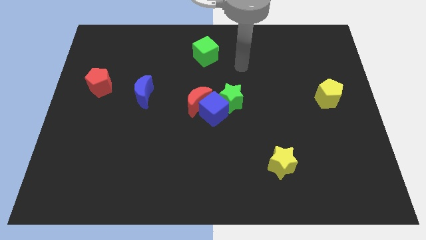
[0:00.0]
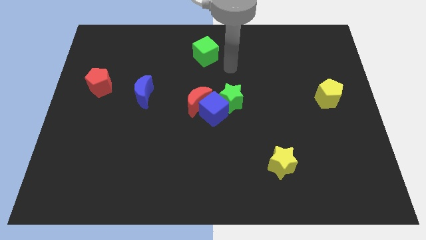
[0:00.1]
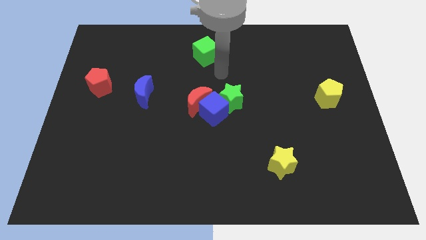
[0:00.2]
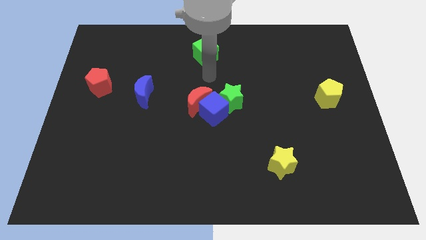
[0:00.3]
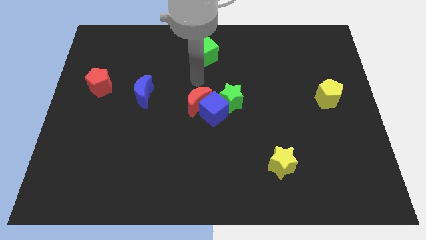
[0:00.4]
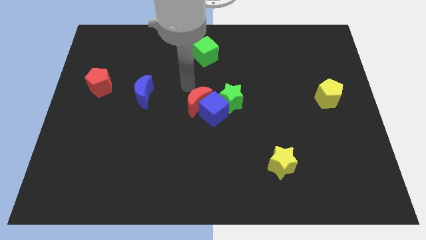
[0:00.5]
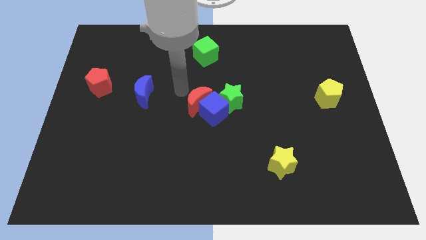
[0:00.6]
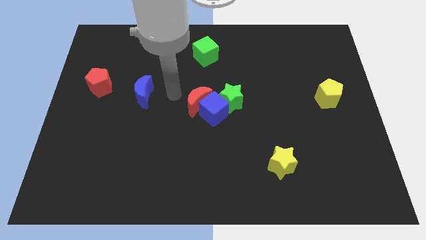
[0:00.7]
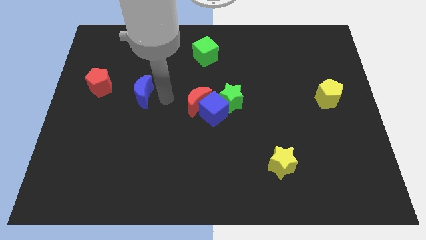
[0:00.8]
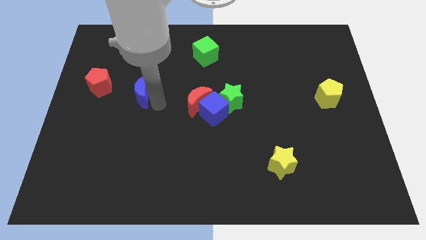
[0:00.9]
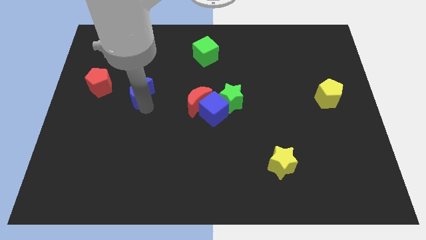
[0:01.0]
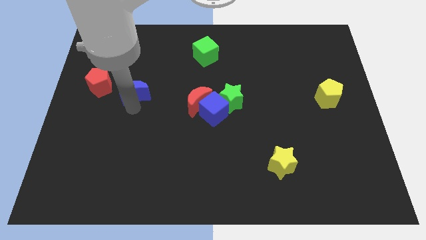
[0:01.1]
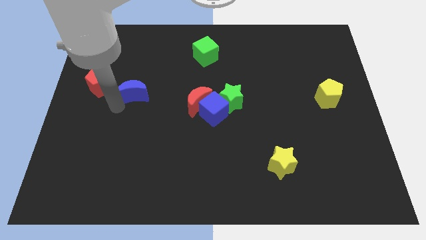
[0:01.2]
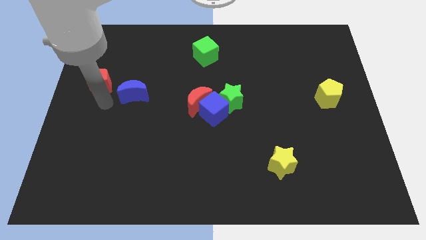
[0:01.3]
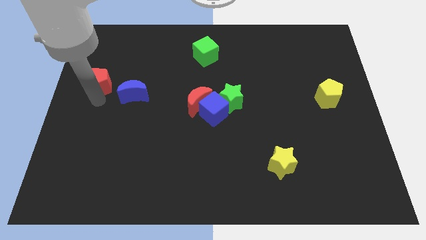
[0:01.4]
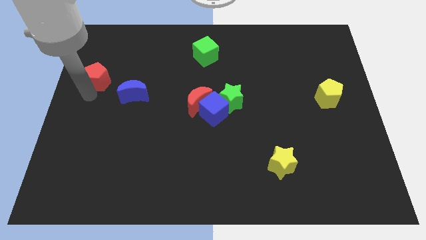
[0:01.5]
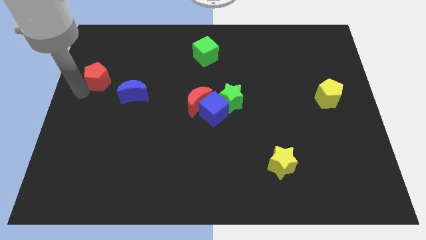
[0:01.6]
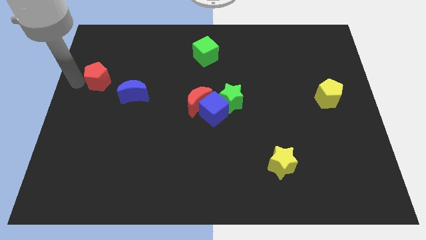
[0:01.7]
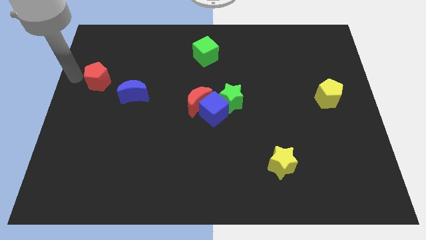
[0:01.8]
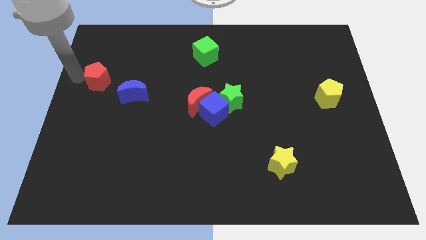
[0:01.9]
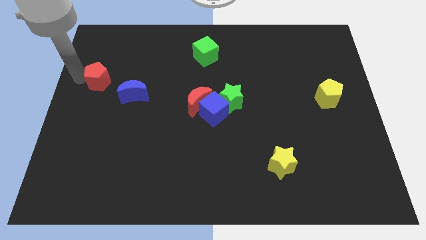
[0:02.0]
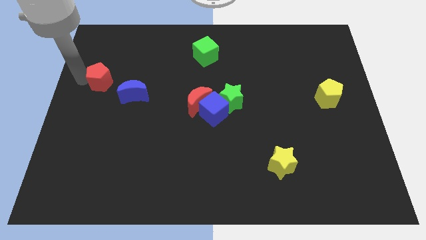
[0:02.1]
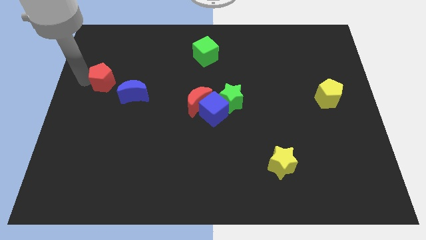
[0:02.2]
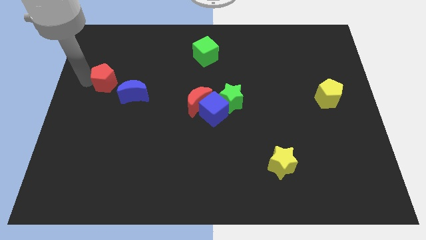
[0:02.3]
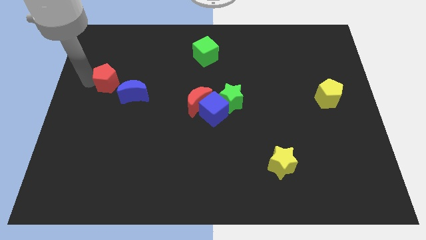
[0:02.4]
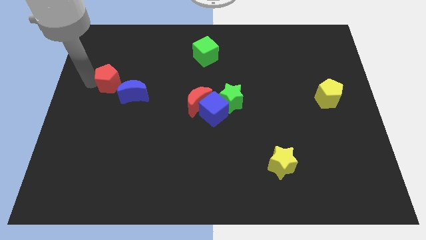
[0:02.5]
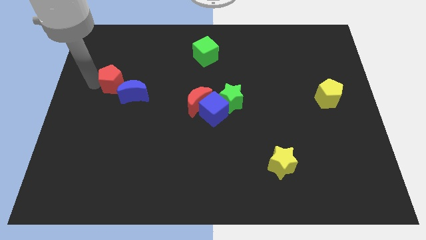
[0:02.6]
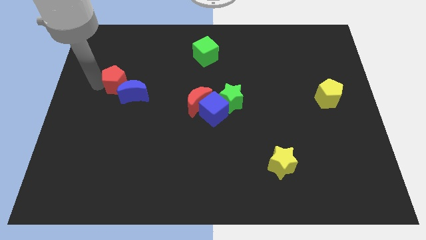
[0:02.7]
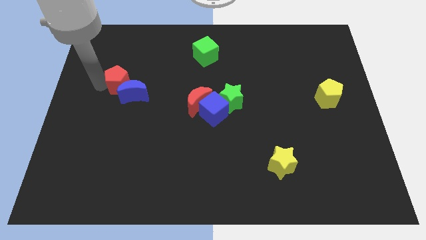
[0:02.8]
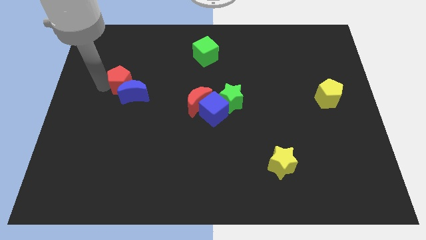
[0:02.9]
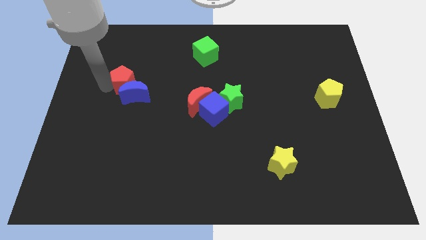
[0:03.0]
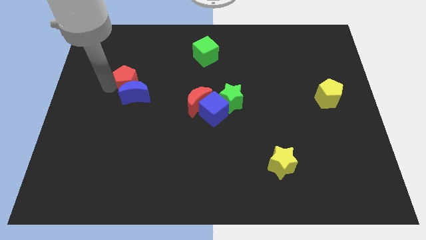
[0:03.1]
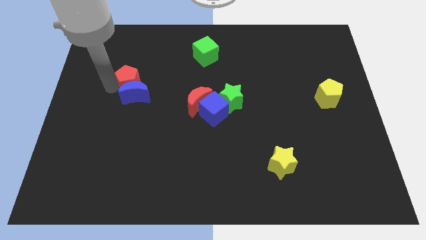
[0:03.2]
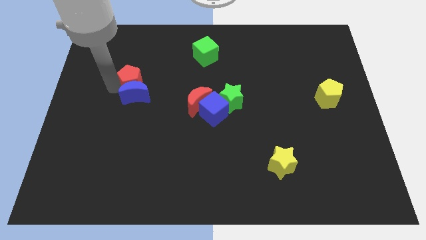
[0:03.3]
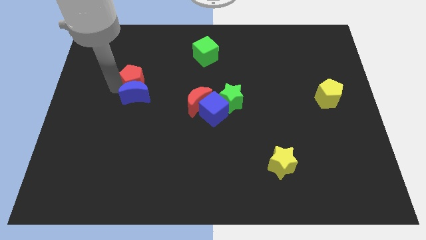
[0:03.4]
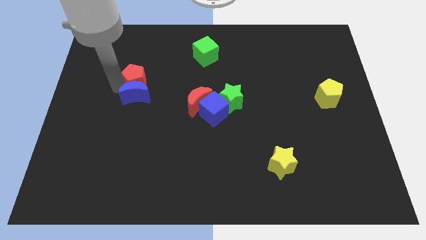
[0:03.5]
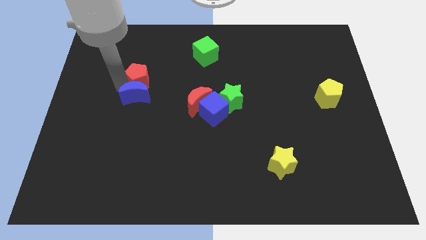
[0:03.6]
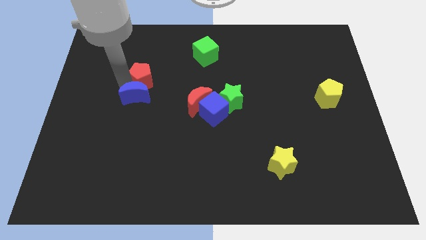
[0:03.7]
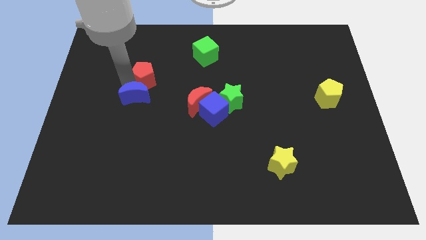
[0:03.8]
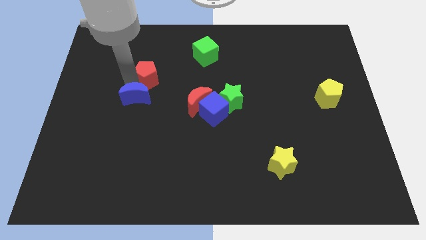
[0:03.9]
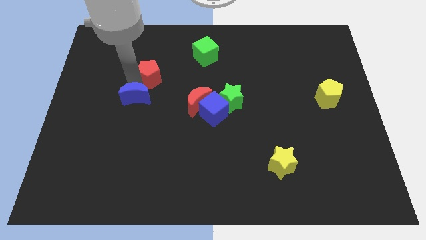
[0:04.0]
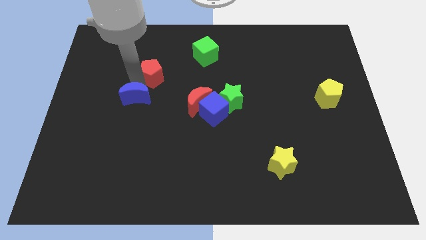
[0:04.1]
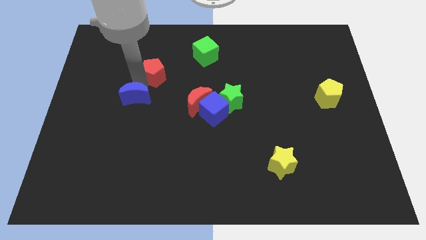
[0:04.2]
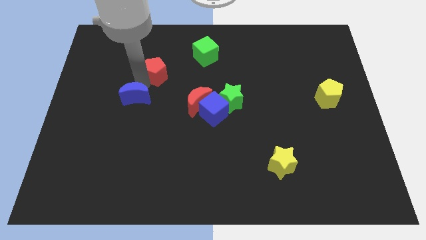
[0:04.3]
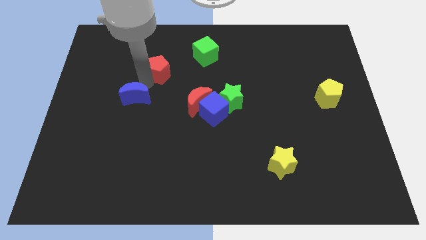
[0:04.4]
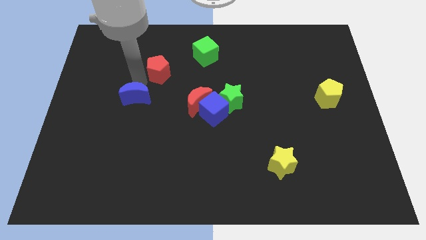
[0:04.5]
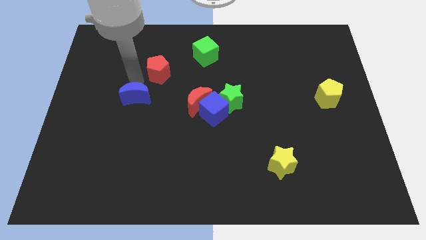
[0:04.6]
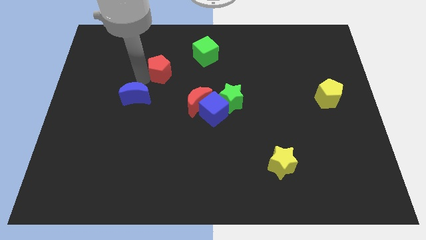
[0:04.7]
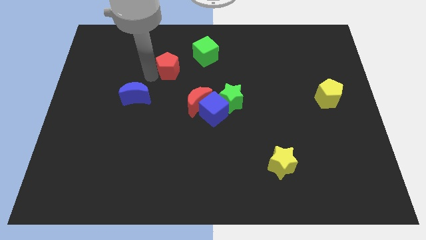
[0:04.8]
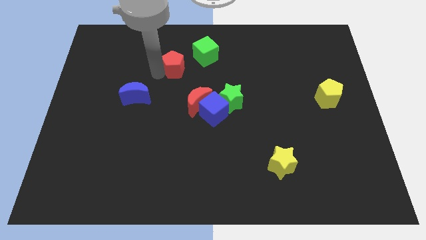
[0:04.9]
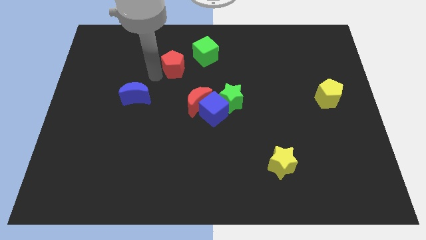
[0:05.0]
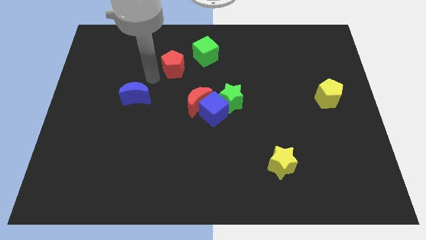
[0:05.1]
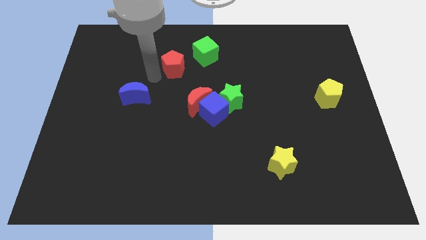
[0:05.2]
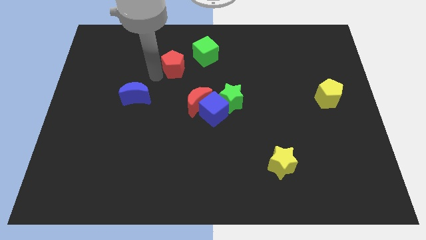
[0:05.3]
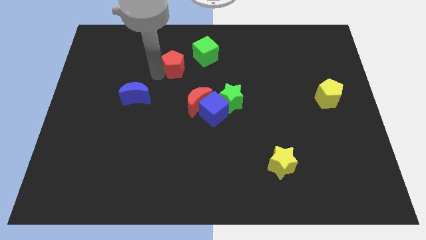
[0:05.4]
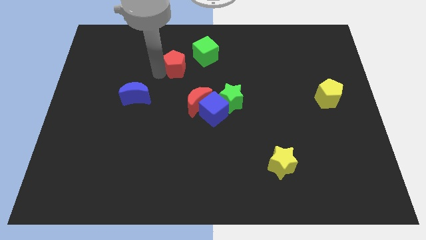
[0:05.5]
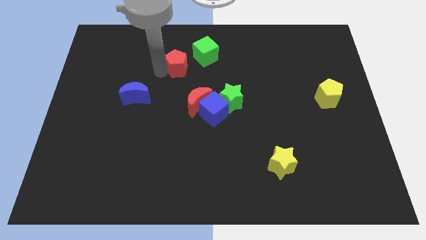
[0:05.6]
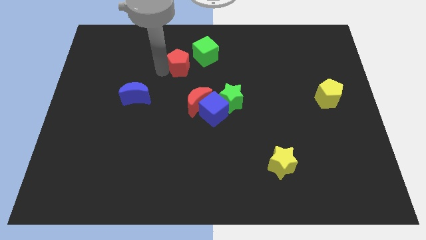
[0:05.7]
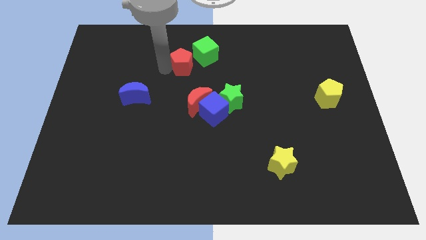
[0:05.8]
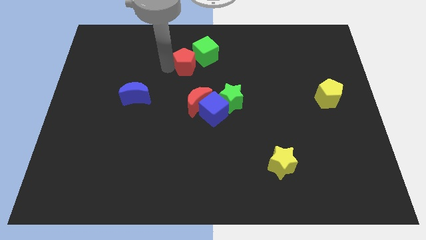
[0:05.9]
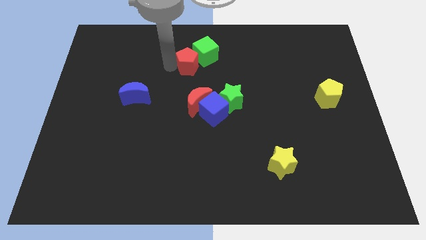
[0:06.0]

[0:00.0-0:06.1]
move the red pentagon close to the green cube

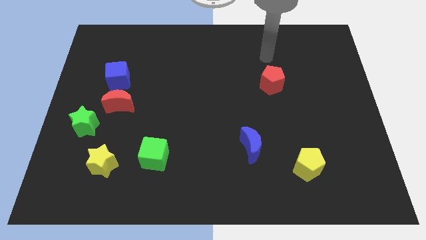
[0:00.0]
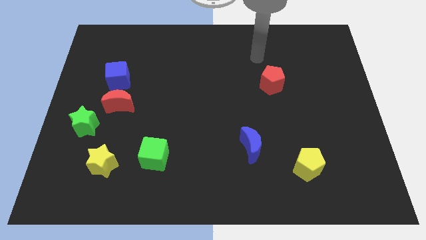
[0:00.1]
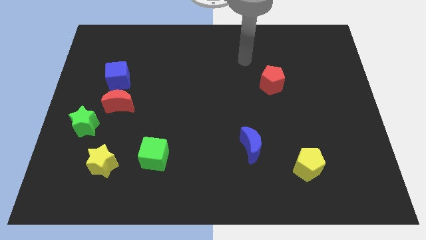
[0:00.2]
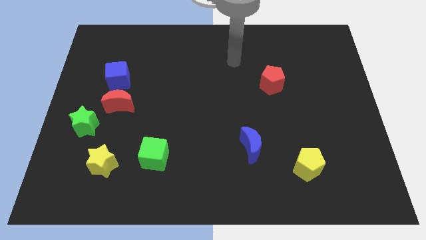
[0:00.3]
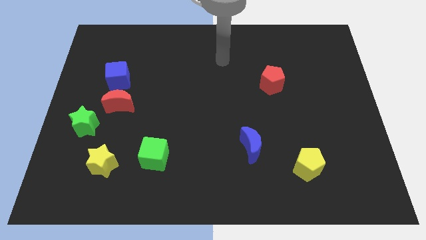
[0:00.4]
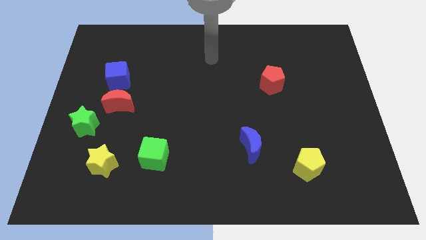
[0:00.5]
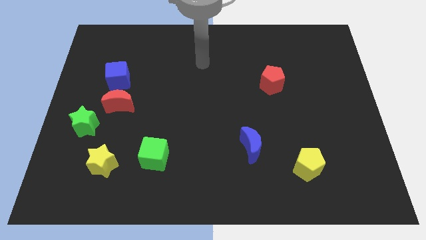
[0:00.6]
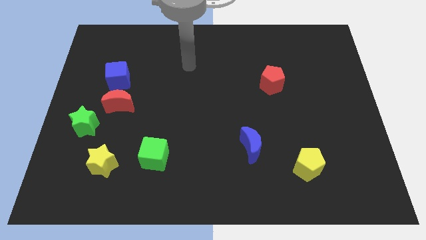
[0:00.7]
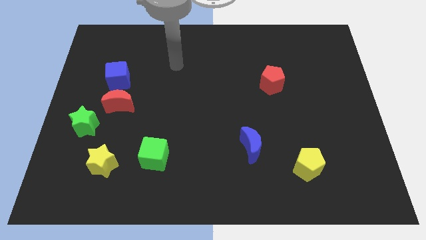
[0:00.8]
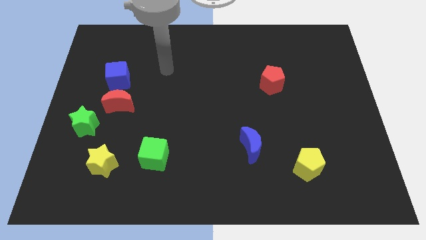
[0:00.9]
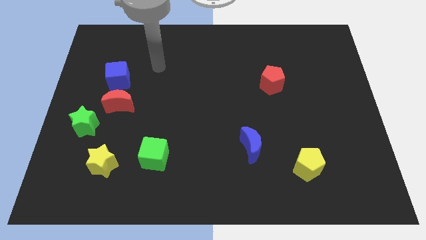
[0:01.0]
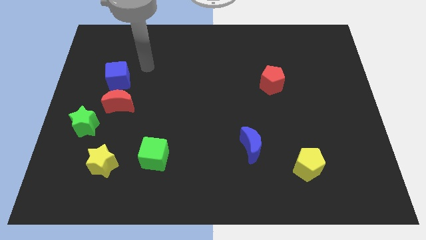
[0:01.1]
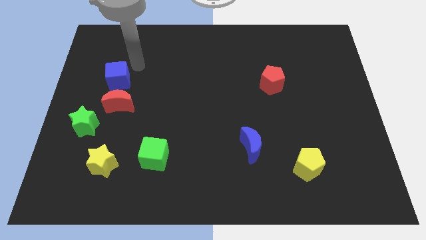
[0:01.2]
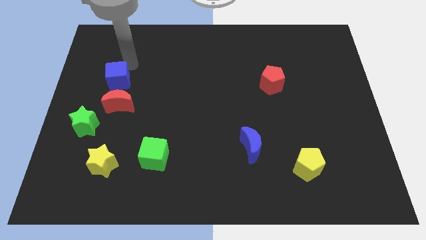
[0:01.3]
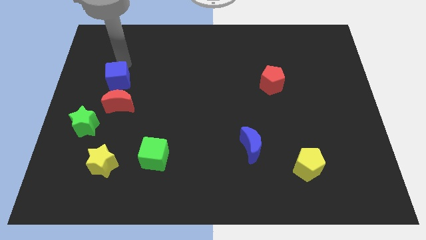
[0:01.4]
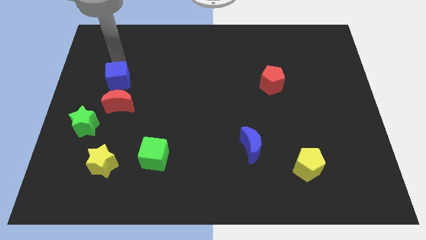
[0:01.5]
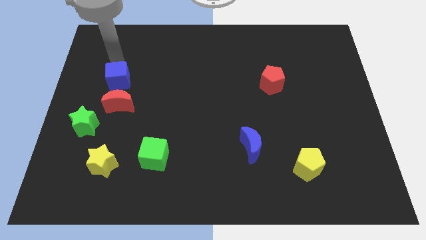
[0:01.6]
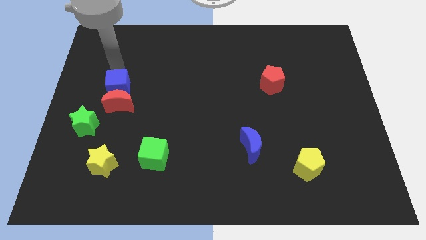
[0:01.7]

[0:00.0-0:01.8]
put the blue cube next to the red moon
